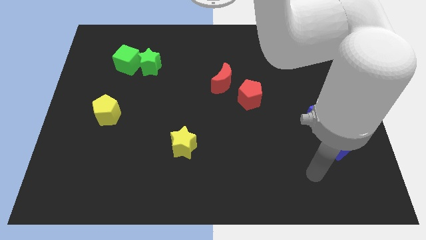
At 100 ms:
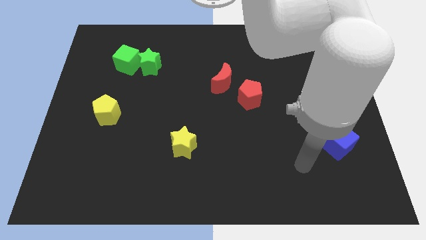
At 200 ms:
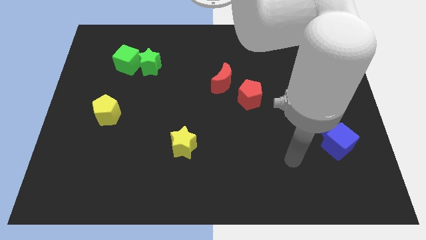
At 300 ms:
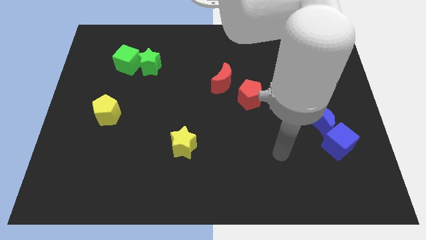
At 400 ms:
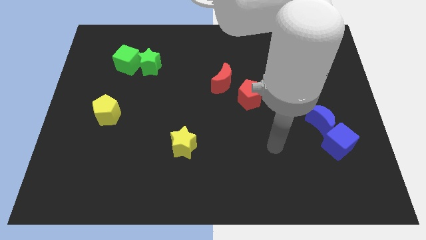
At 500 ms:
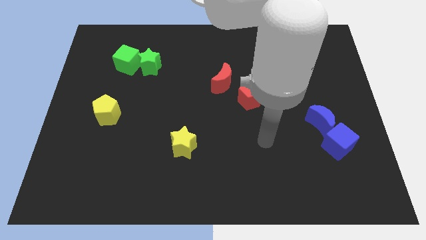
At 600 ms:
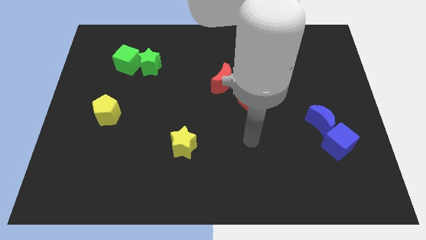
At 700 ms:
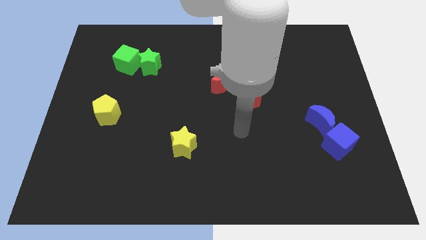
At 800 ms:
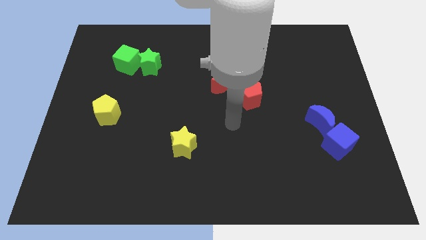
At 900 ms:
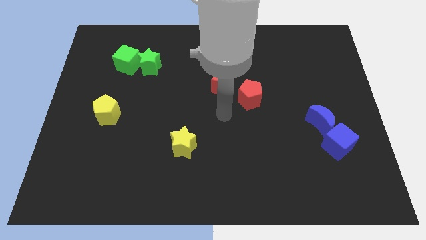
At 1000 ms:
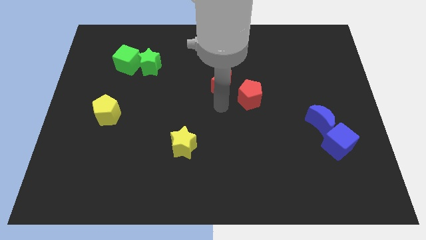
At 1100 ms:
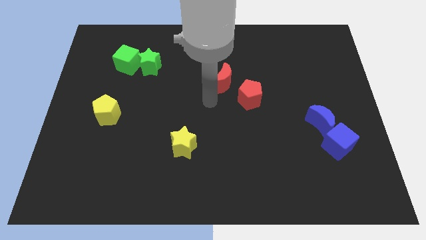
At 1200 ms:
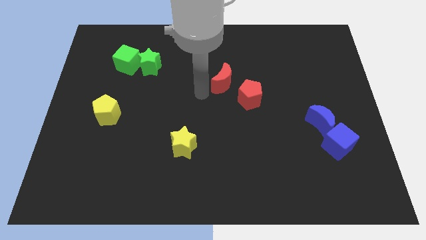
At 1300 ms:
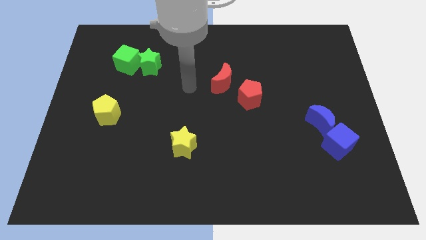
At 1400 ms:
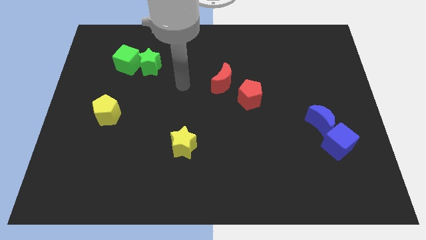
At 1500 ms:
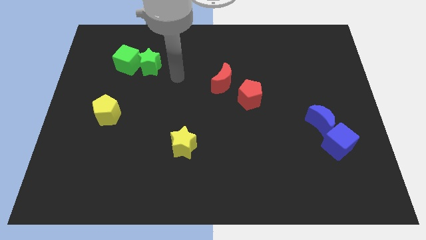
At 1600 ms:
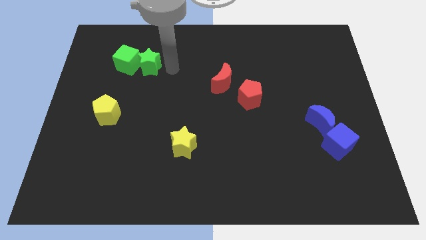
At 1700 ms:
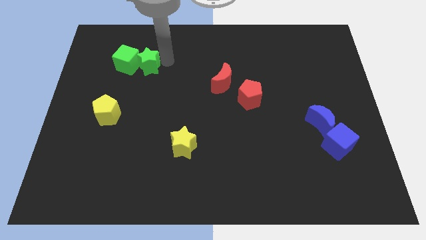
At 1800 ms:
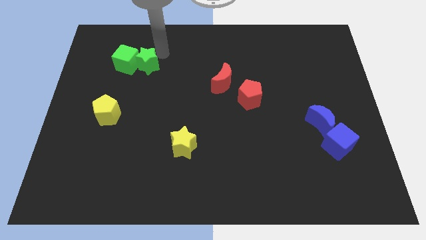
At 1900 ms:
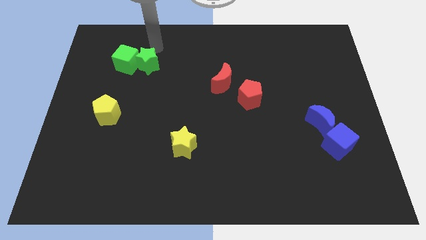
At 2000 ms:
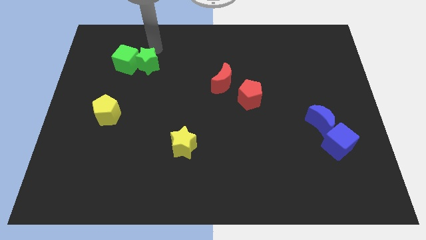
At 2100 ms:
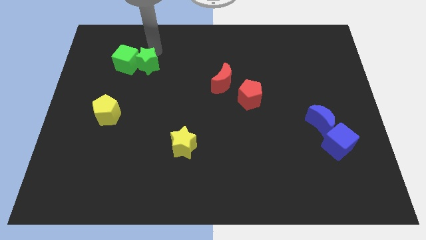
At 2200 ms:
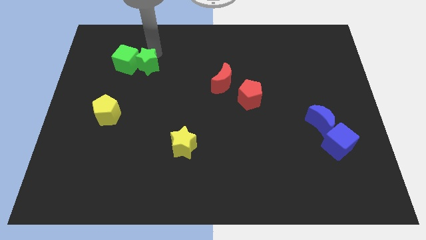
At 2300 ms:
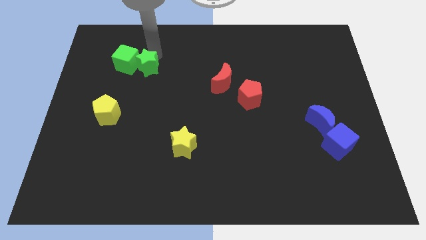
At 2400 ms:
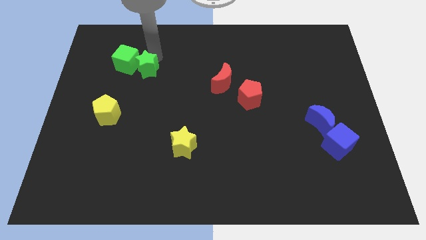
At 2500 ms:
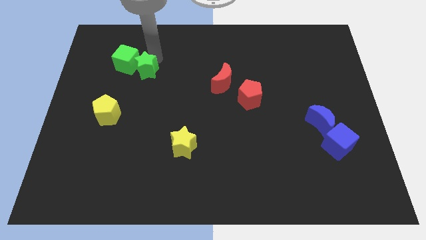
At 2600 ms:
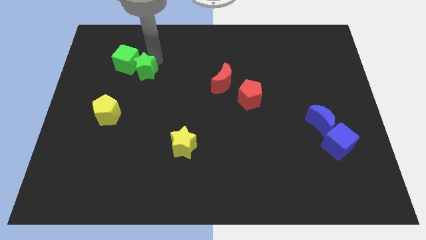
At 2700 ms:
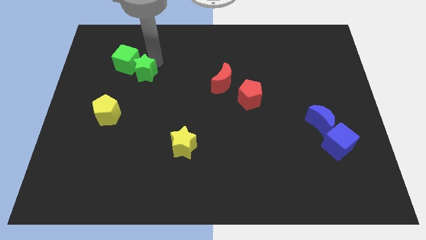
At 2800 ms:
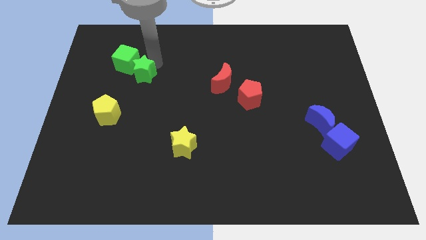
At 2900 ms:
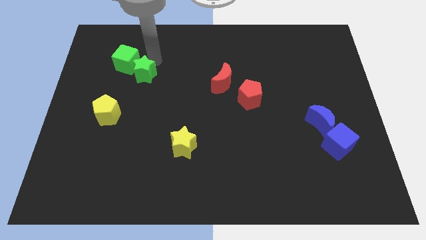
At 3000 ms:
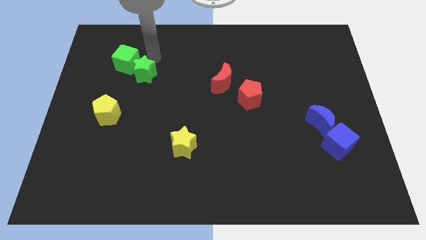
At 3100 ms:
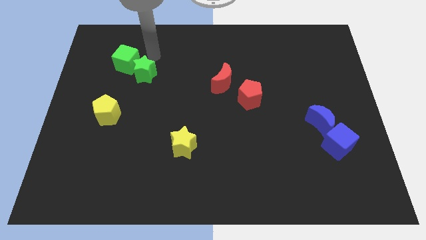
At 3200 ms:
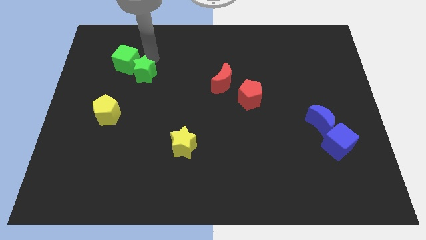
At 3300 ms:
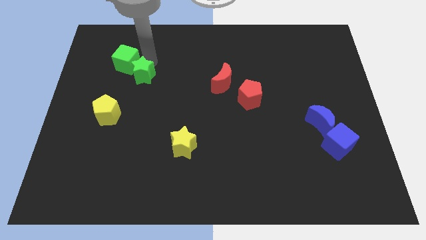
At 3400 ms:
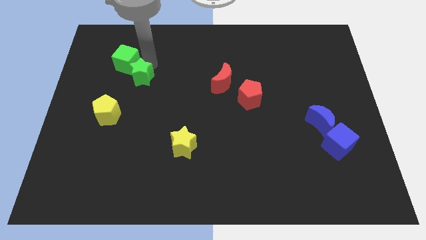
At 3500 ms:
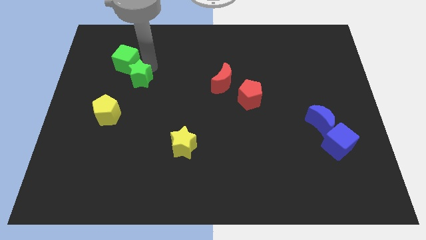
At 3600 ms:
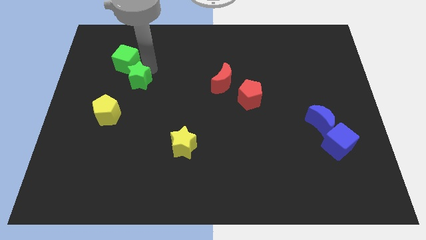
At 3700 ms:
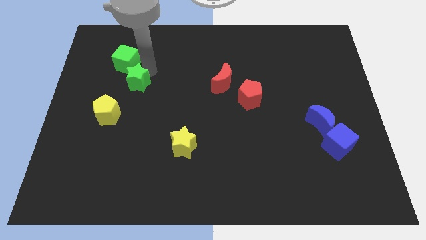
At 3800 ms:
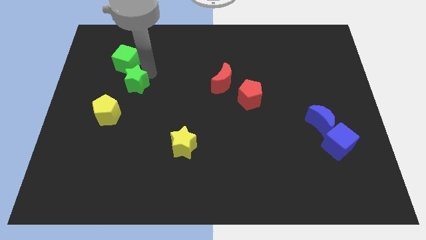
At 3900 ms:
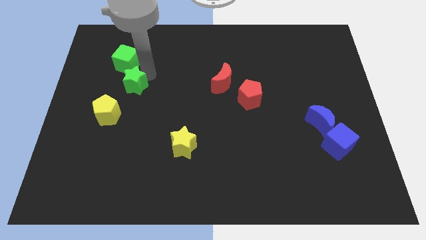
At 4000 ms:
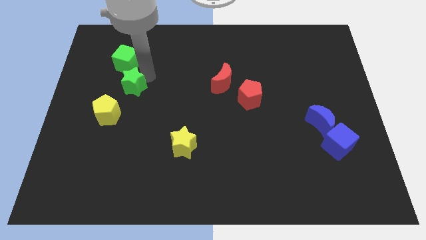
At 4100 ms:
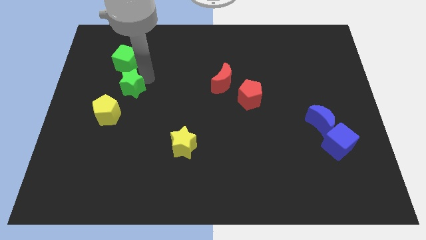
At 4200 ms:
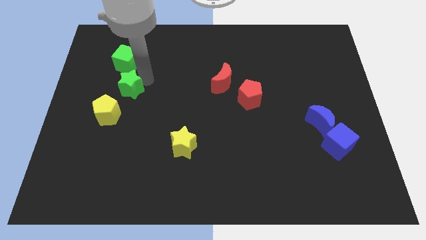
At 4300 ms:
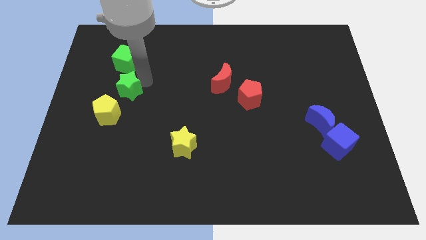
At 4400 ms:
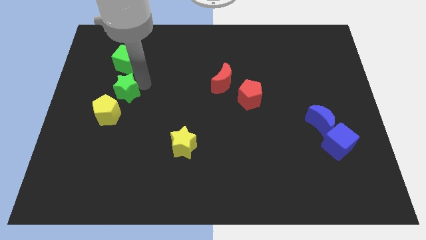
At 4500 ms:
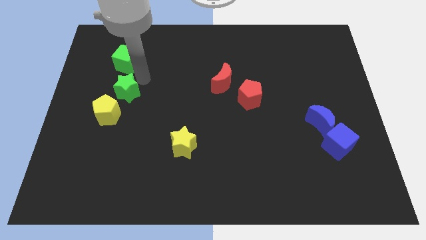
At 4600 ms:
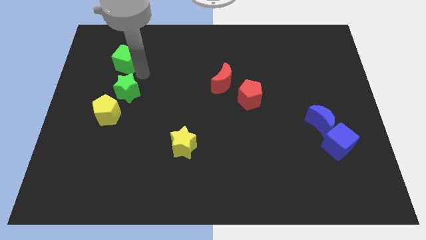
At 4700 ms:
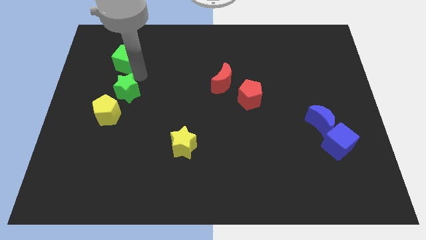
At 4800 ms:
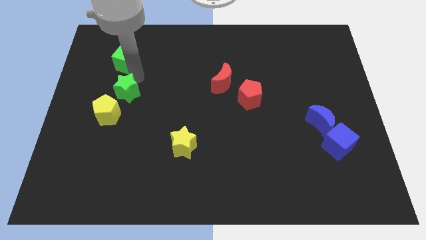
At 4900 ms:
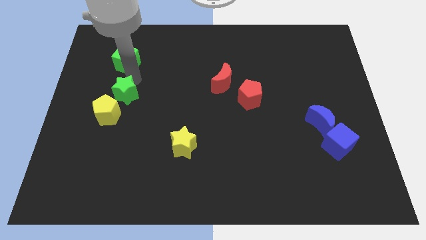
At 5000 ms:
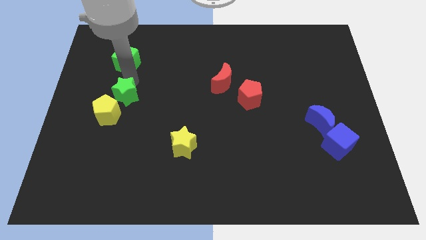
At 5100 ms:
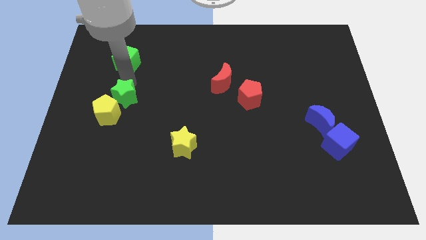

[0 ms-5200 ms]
put the green star close to the yellow pentagon

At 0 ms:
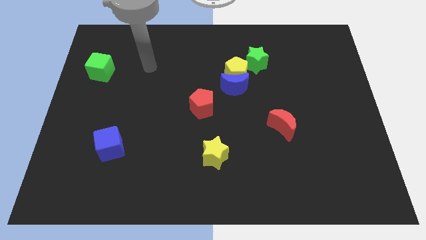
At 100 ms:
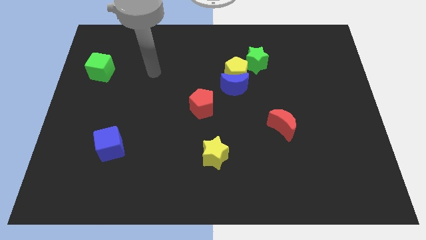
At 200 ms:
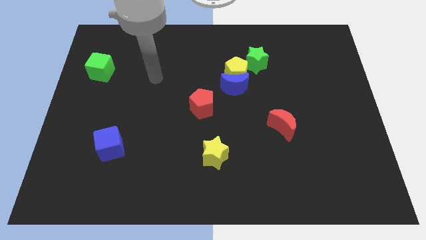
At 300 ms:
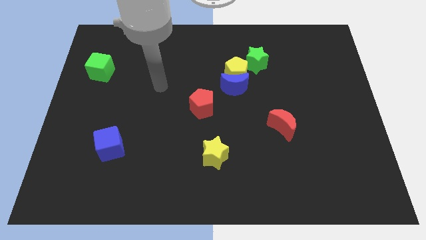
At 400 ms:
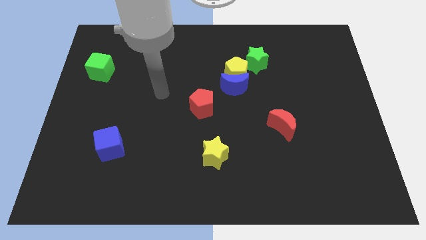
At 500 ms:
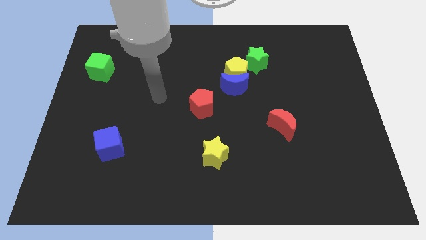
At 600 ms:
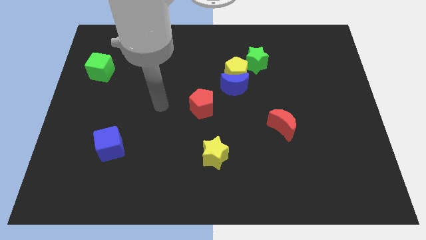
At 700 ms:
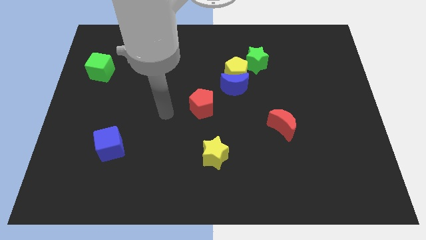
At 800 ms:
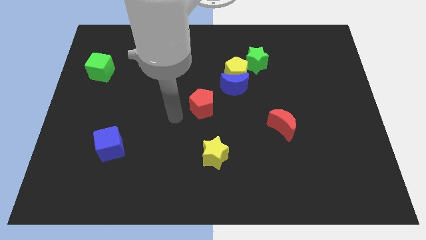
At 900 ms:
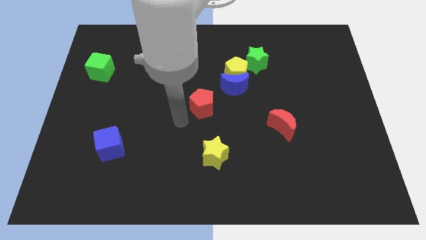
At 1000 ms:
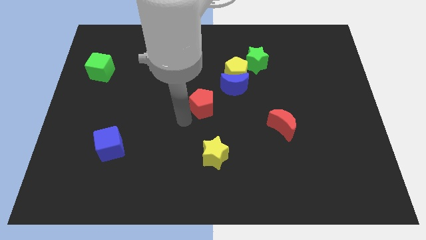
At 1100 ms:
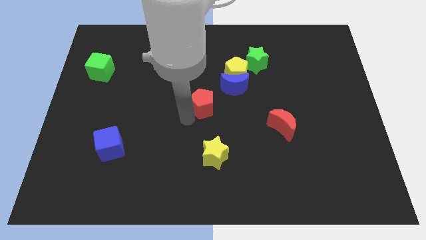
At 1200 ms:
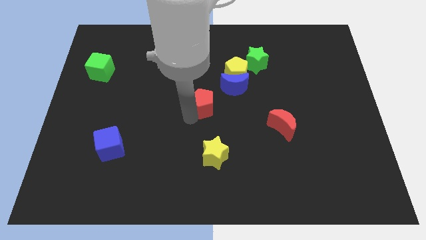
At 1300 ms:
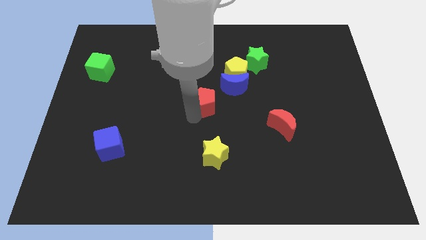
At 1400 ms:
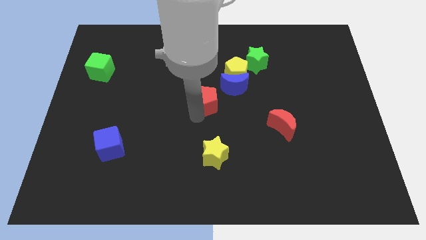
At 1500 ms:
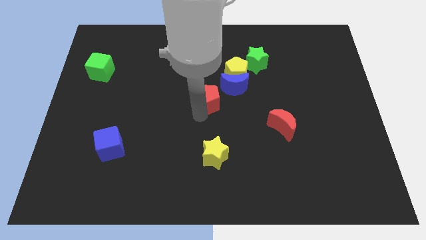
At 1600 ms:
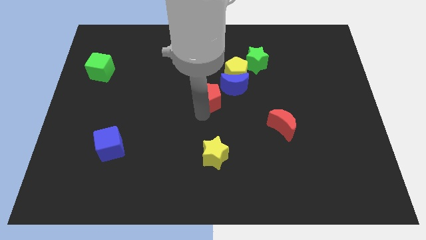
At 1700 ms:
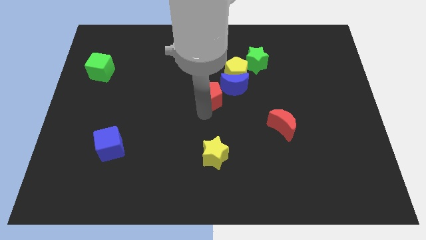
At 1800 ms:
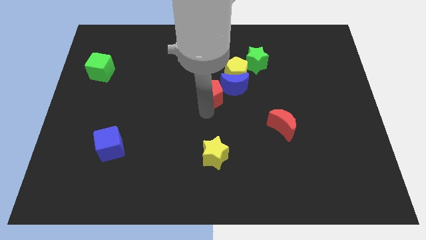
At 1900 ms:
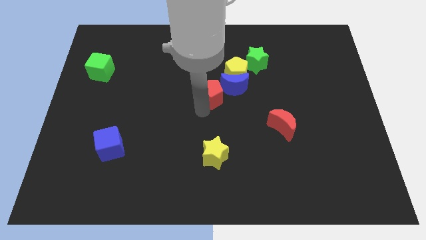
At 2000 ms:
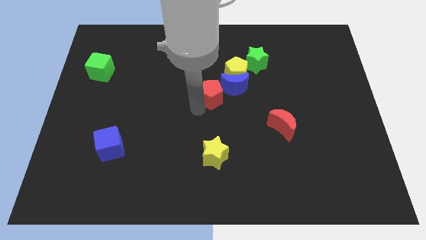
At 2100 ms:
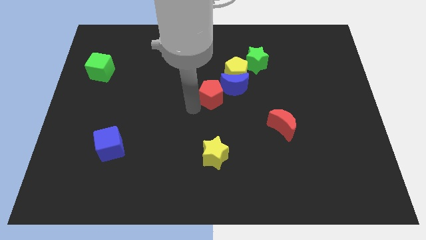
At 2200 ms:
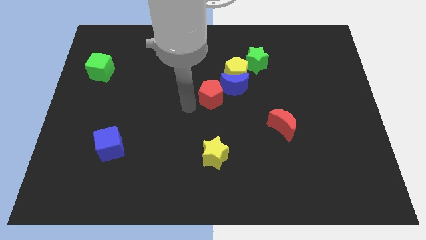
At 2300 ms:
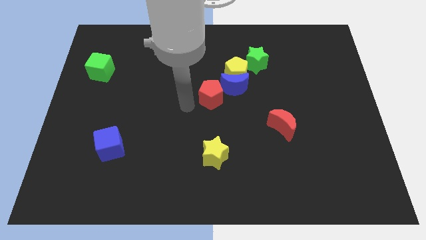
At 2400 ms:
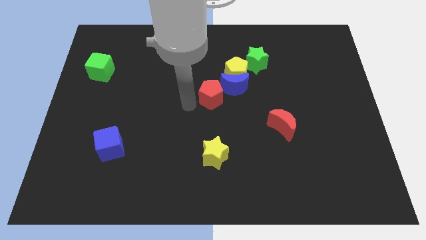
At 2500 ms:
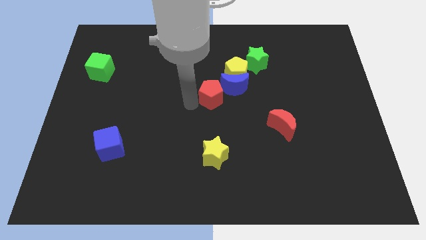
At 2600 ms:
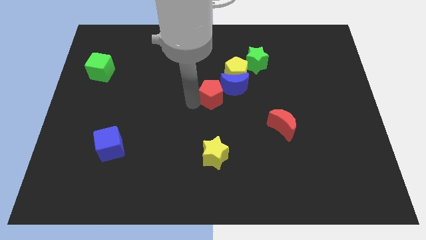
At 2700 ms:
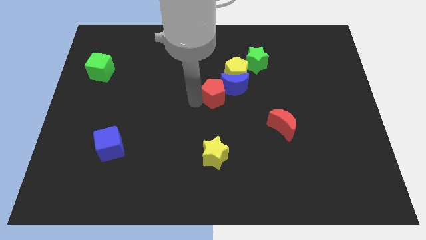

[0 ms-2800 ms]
move the red pentagon close to the blue moon
